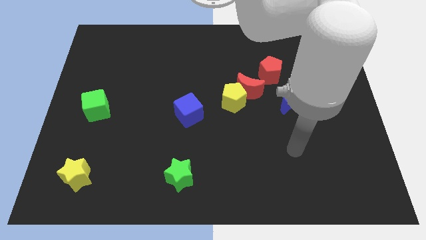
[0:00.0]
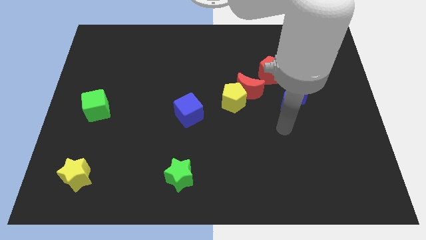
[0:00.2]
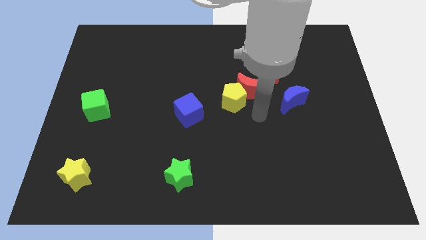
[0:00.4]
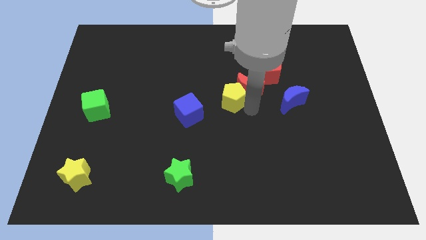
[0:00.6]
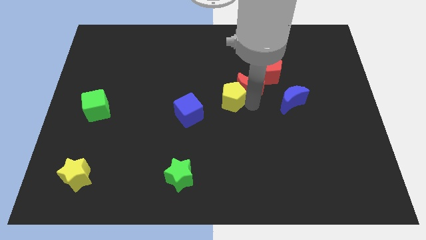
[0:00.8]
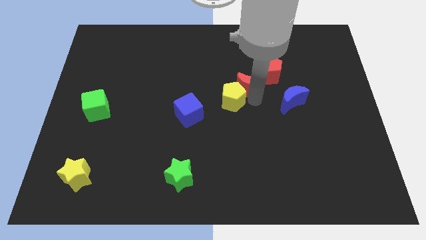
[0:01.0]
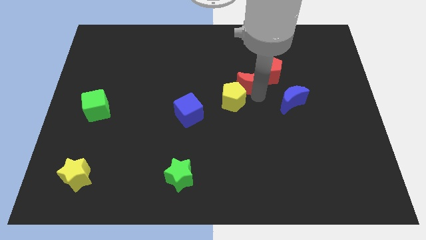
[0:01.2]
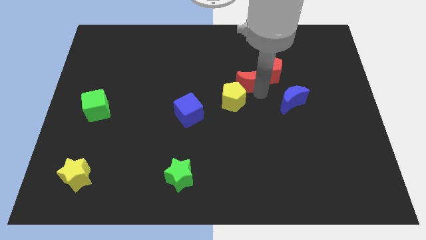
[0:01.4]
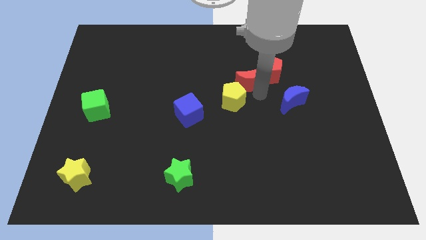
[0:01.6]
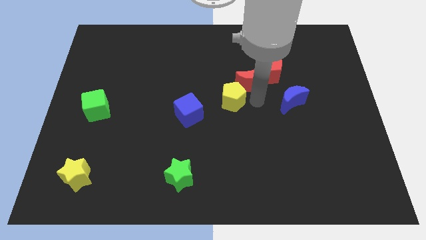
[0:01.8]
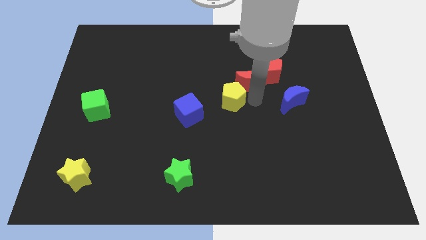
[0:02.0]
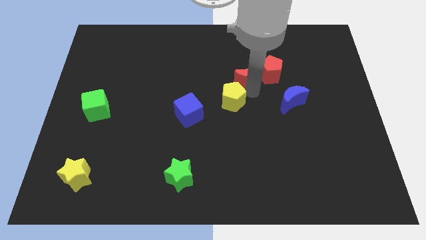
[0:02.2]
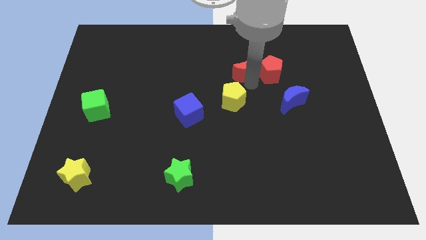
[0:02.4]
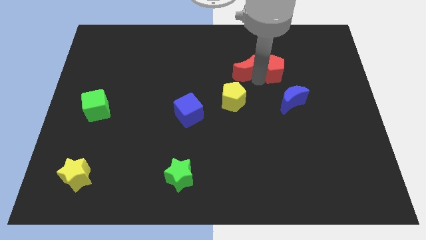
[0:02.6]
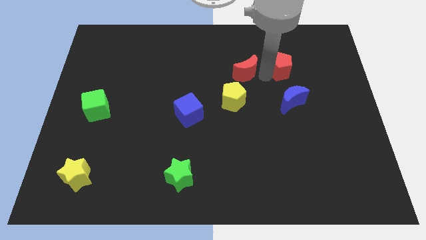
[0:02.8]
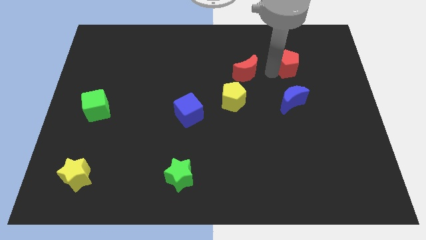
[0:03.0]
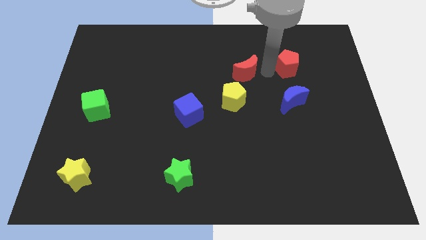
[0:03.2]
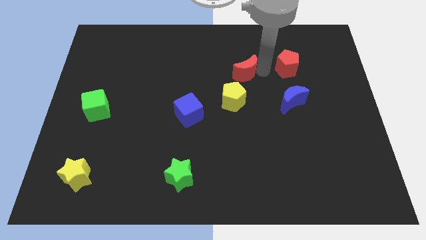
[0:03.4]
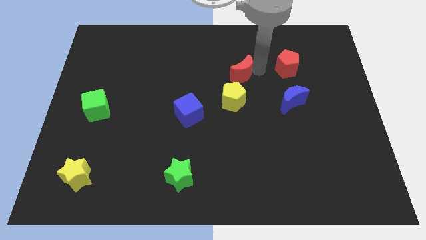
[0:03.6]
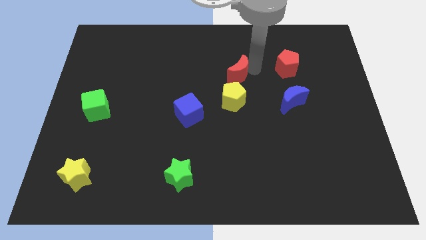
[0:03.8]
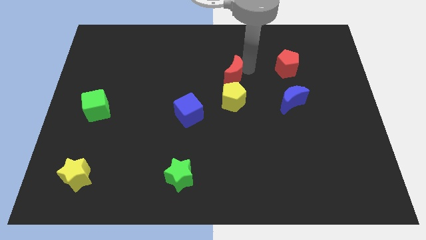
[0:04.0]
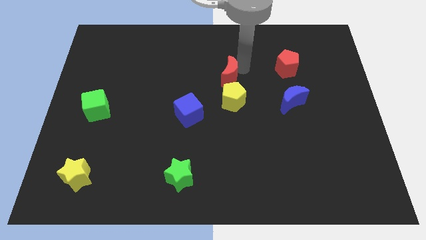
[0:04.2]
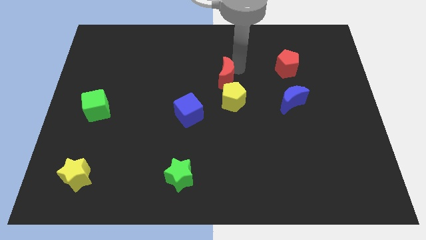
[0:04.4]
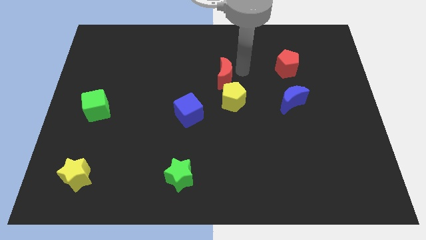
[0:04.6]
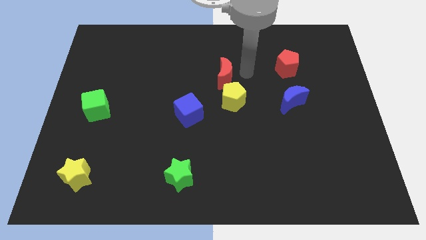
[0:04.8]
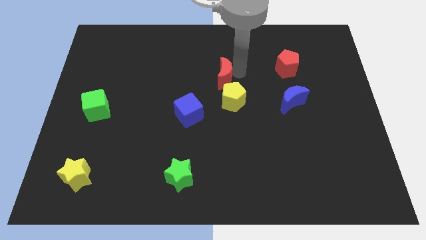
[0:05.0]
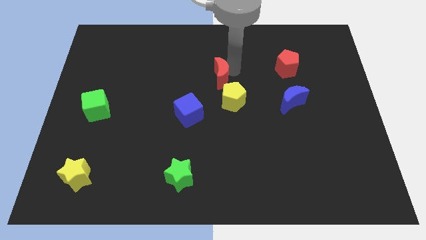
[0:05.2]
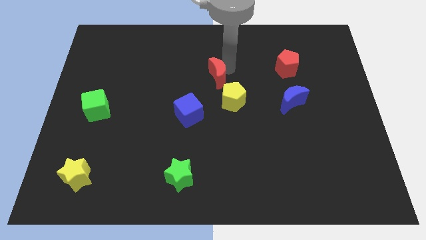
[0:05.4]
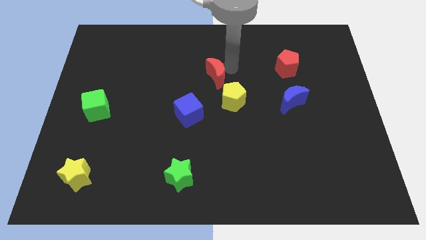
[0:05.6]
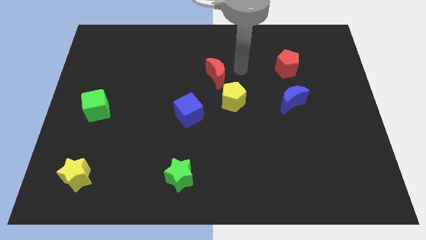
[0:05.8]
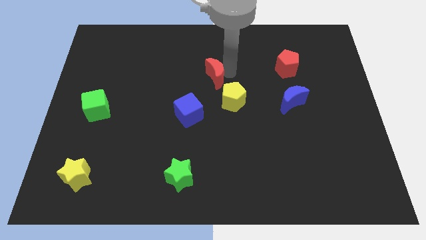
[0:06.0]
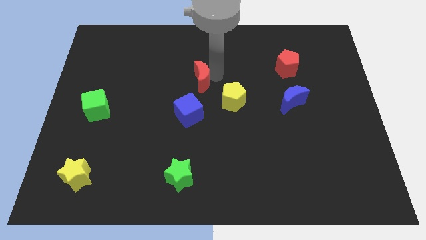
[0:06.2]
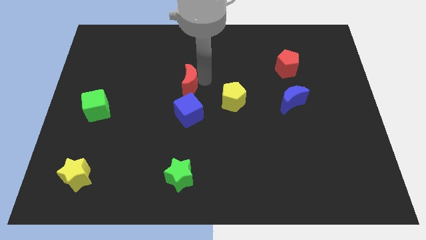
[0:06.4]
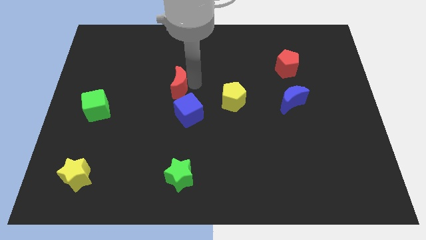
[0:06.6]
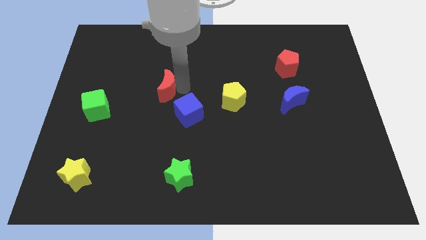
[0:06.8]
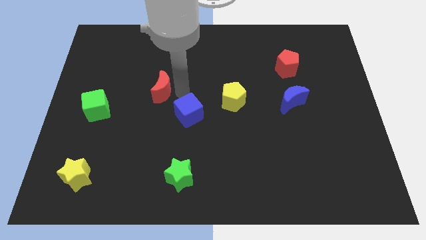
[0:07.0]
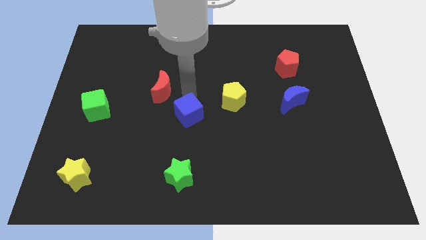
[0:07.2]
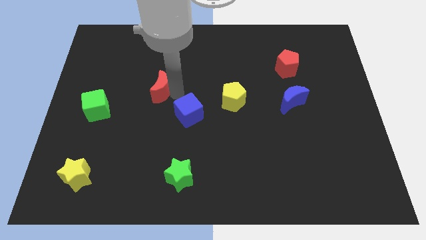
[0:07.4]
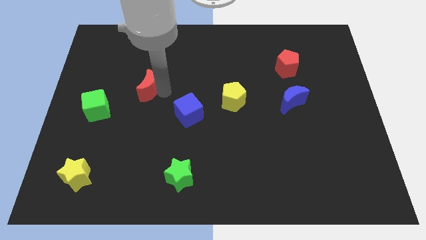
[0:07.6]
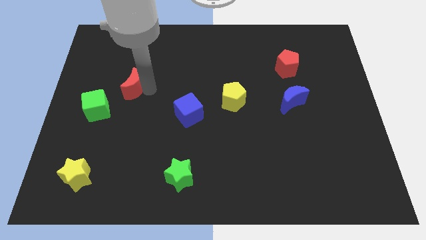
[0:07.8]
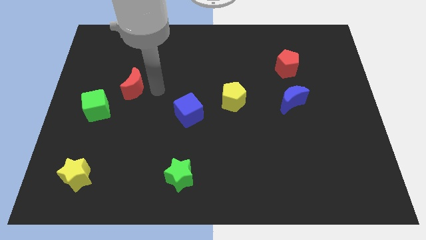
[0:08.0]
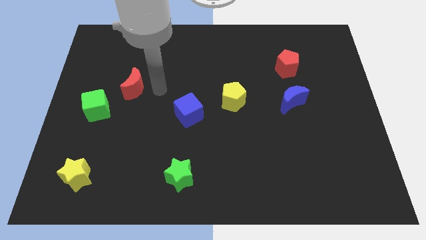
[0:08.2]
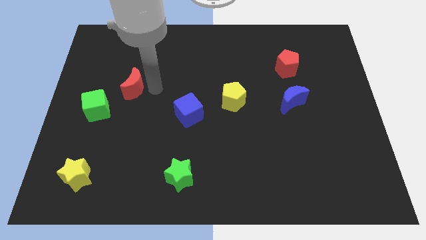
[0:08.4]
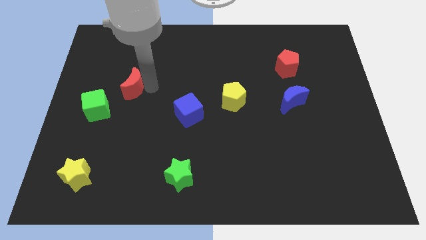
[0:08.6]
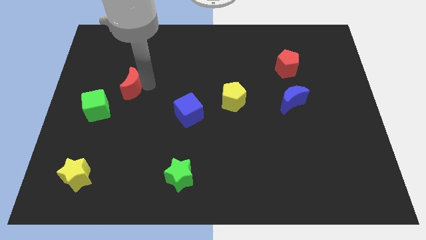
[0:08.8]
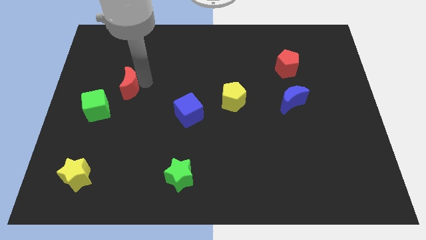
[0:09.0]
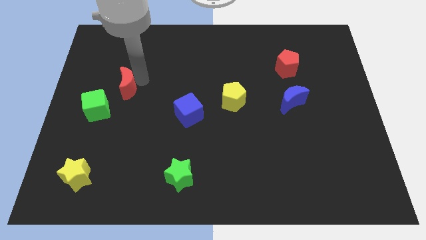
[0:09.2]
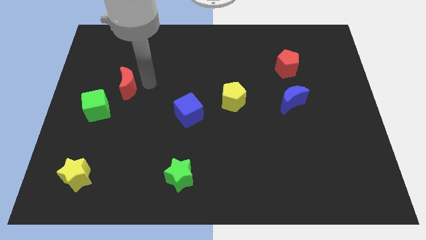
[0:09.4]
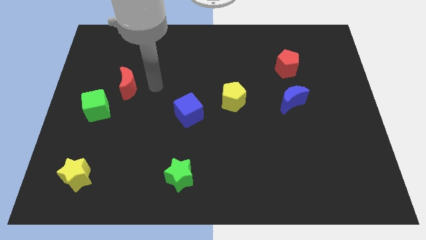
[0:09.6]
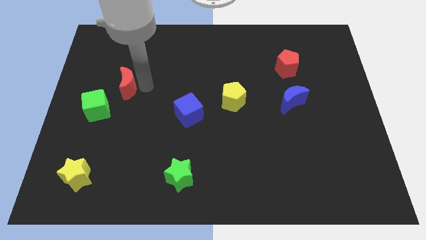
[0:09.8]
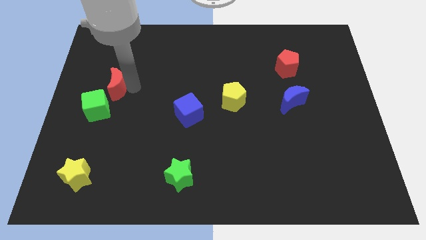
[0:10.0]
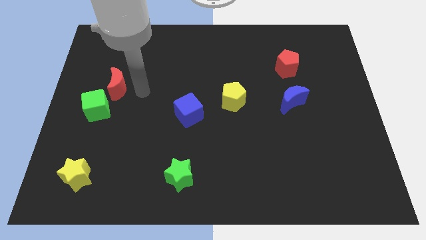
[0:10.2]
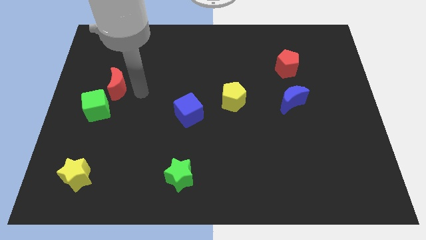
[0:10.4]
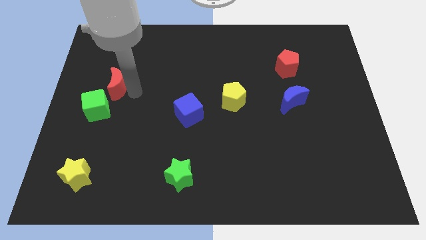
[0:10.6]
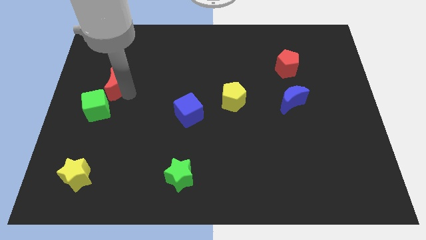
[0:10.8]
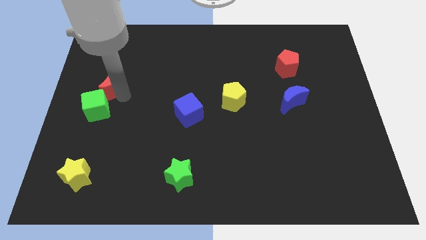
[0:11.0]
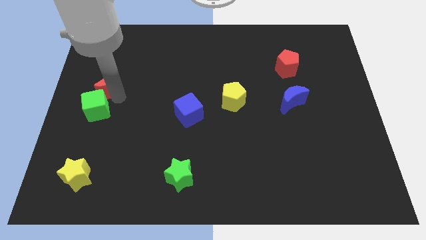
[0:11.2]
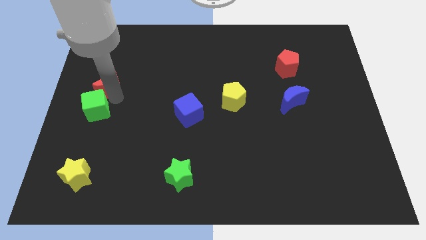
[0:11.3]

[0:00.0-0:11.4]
push the red moon to the center left

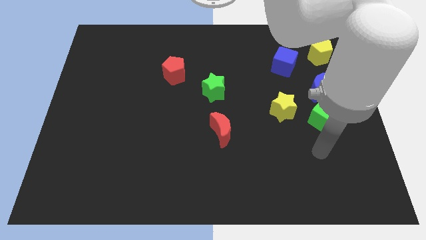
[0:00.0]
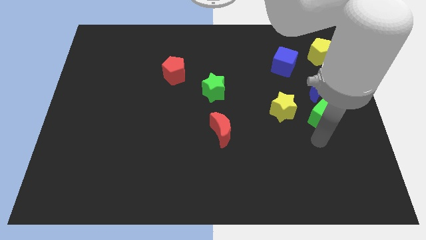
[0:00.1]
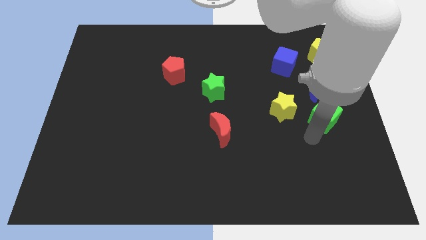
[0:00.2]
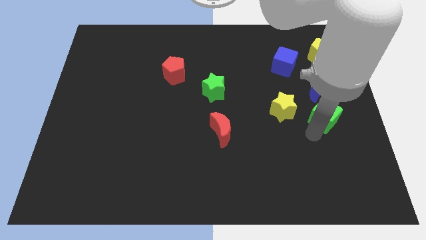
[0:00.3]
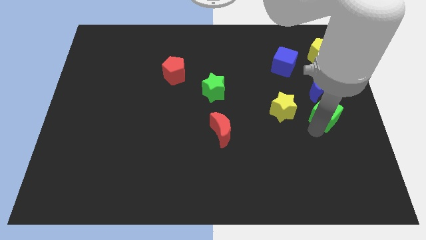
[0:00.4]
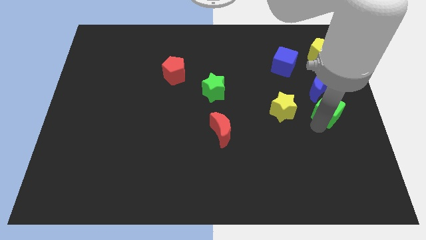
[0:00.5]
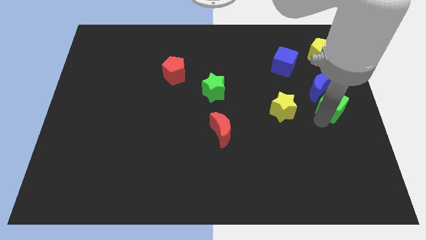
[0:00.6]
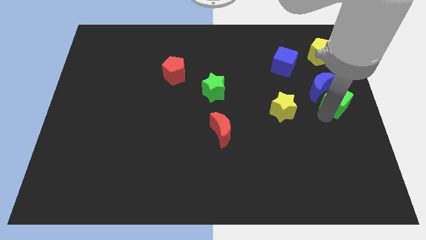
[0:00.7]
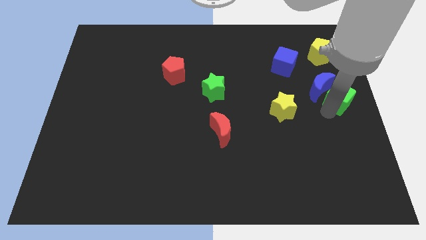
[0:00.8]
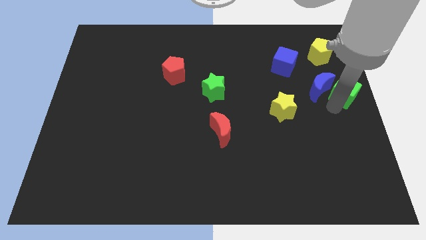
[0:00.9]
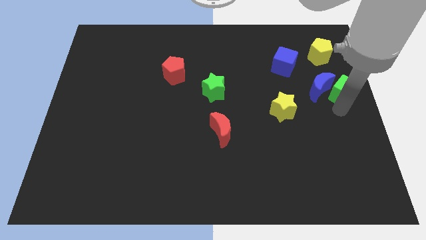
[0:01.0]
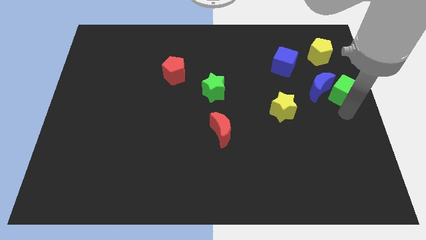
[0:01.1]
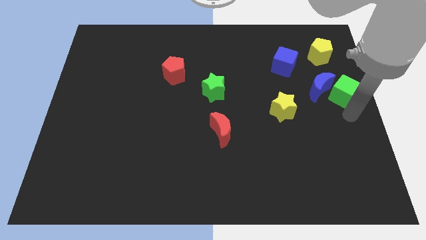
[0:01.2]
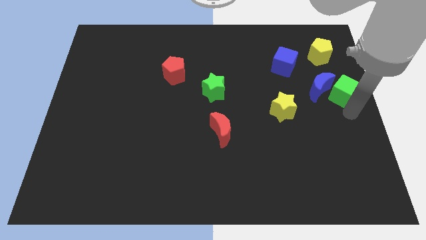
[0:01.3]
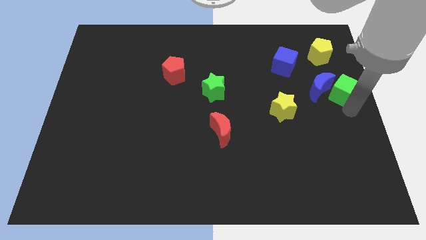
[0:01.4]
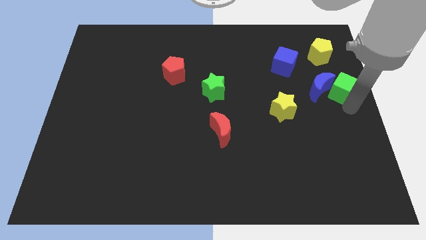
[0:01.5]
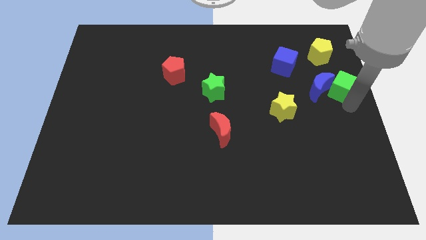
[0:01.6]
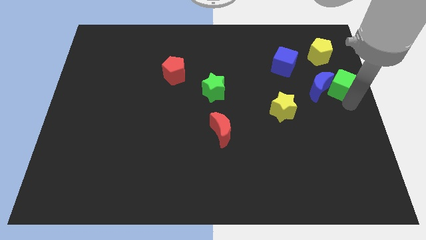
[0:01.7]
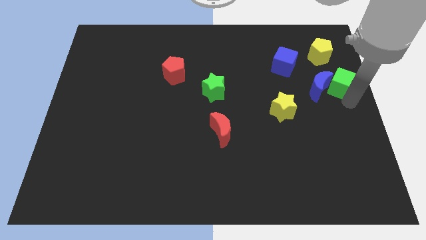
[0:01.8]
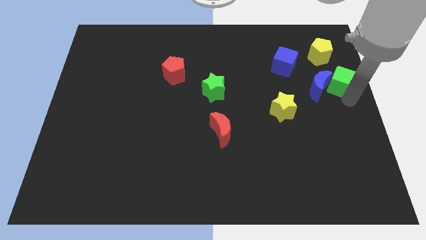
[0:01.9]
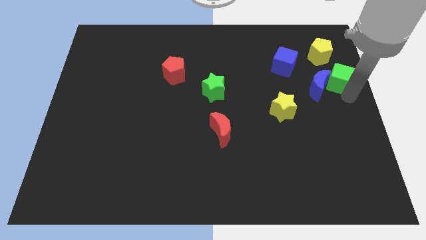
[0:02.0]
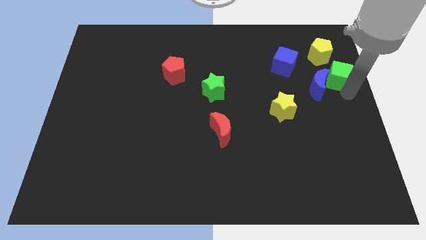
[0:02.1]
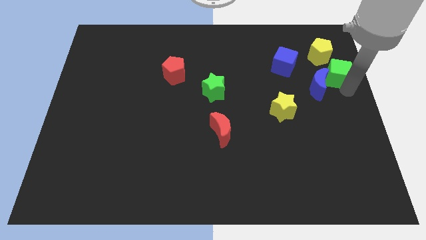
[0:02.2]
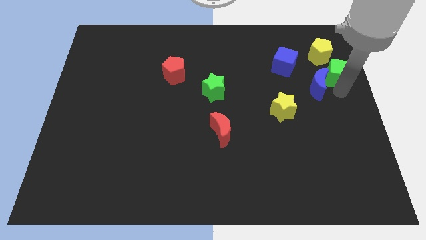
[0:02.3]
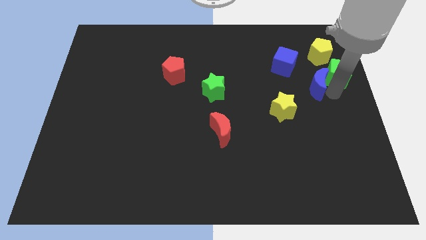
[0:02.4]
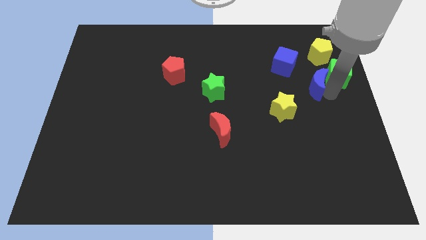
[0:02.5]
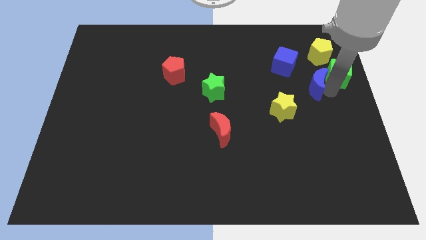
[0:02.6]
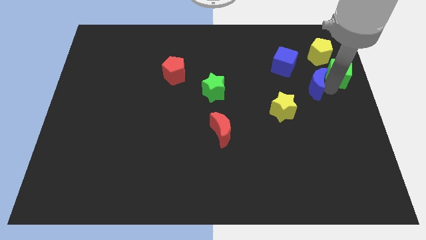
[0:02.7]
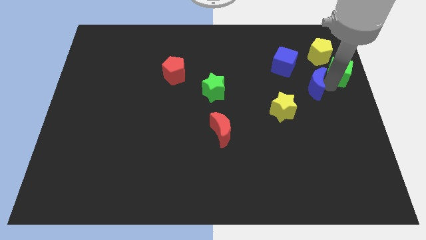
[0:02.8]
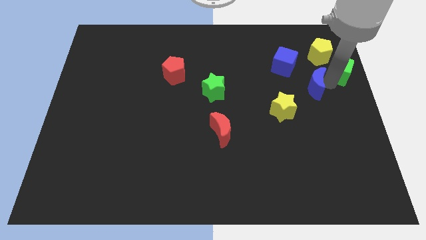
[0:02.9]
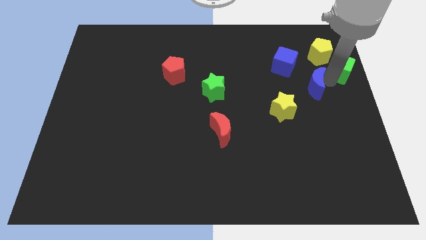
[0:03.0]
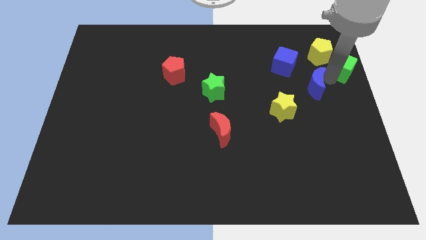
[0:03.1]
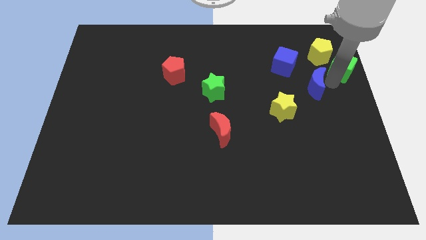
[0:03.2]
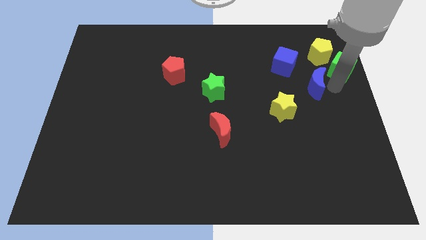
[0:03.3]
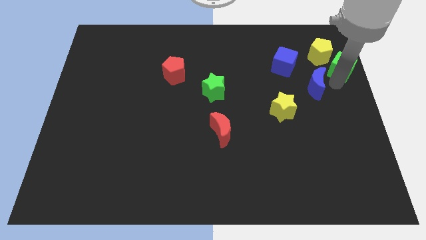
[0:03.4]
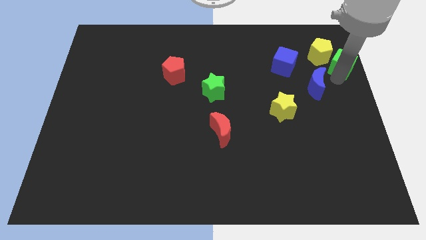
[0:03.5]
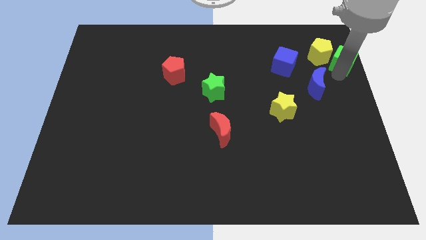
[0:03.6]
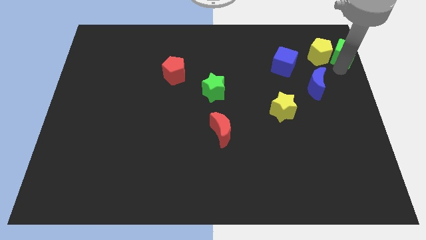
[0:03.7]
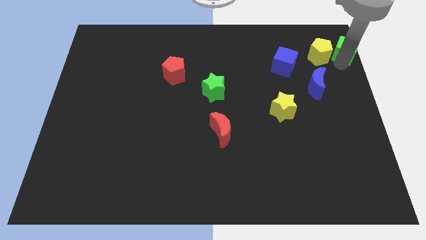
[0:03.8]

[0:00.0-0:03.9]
push the green cube to the top right
